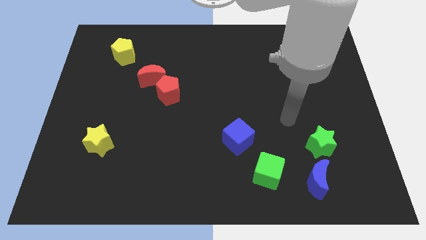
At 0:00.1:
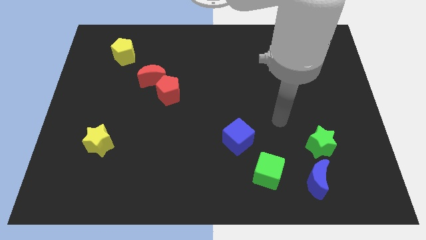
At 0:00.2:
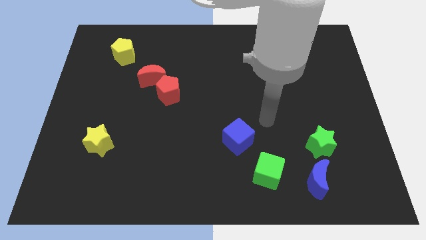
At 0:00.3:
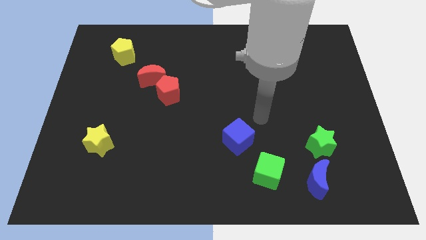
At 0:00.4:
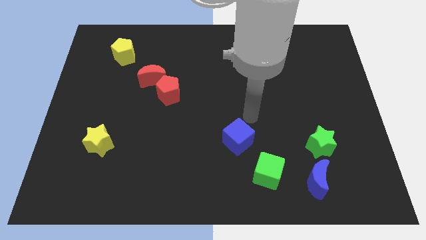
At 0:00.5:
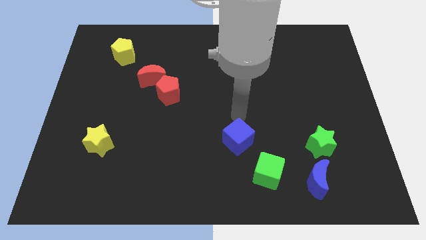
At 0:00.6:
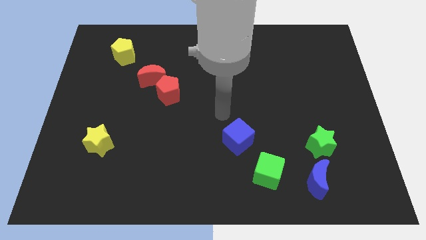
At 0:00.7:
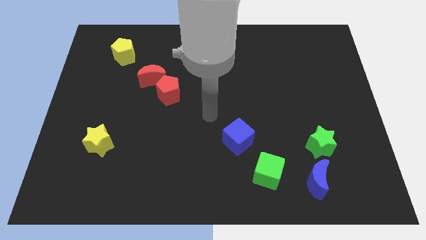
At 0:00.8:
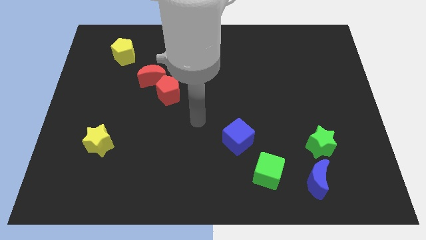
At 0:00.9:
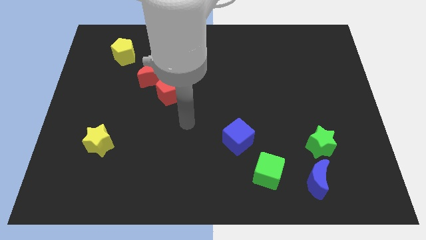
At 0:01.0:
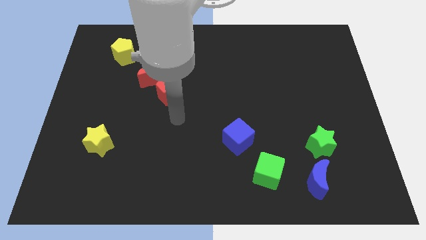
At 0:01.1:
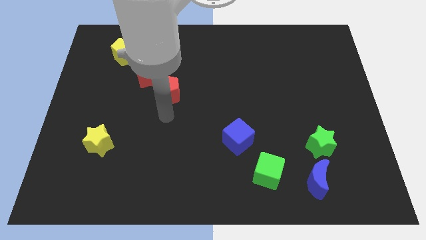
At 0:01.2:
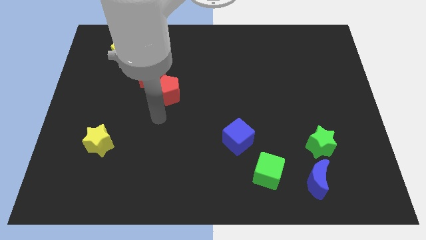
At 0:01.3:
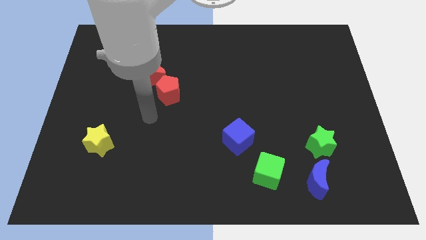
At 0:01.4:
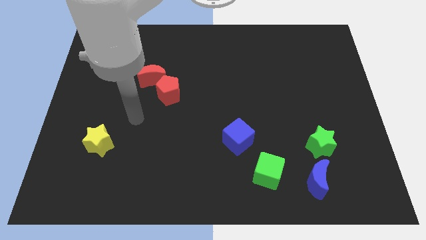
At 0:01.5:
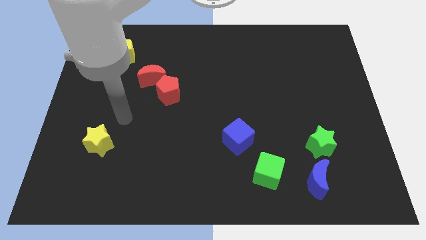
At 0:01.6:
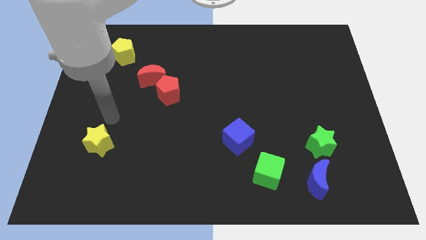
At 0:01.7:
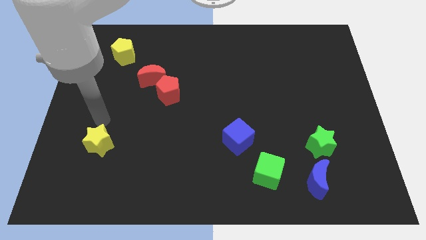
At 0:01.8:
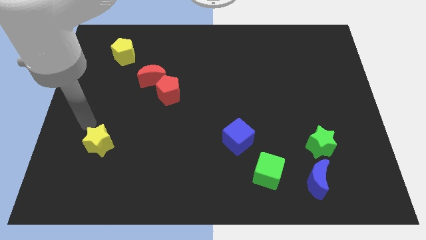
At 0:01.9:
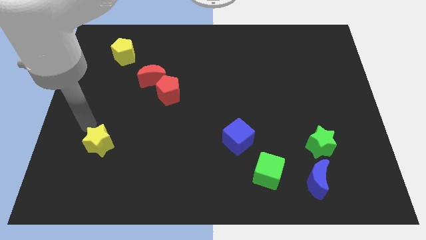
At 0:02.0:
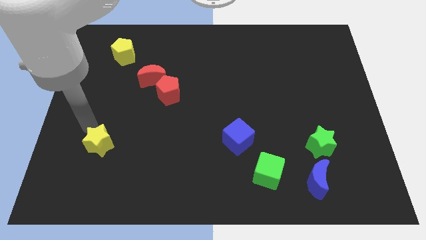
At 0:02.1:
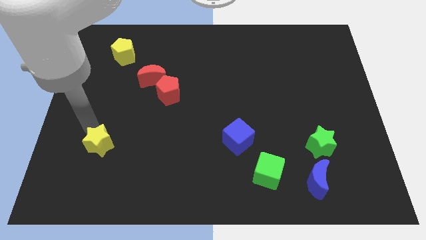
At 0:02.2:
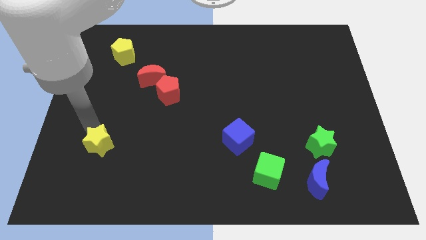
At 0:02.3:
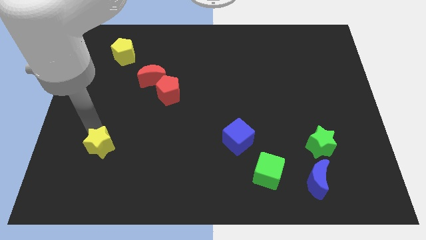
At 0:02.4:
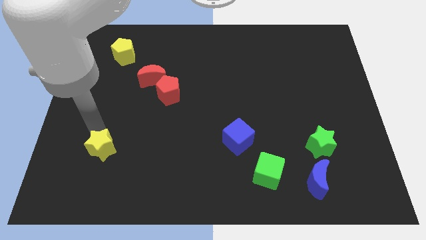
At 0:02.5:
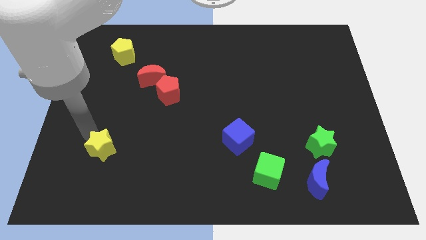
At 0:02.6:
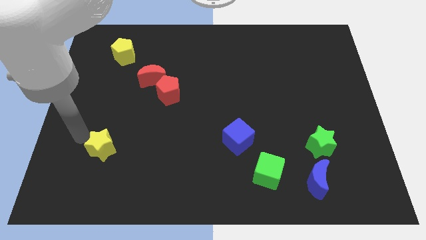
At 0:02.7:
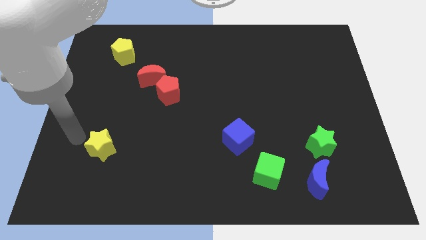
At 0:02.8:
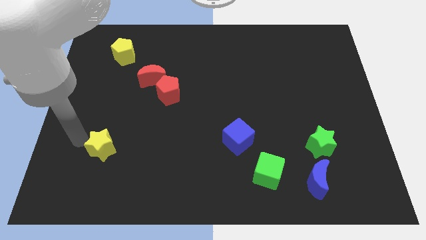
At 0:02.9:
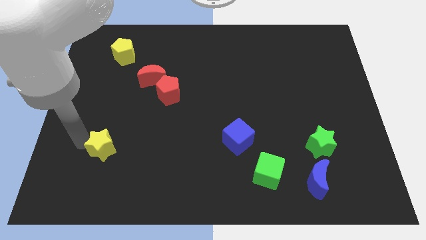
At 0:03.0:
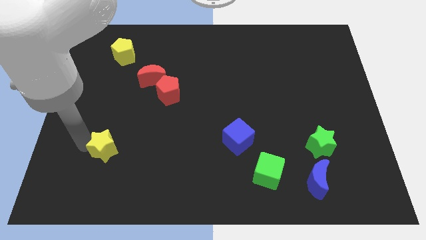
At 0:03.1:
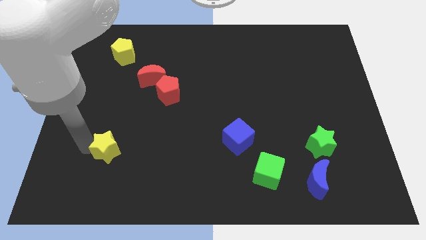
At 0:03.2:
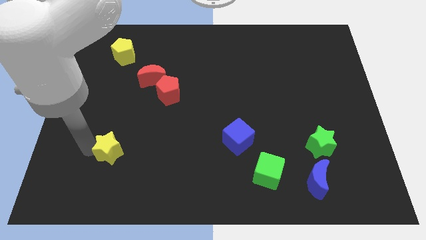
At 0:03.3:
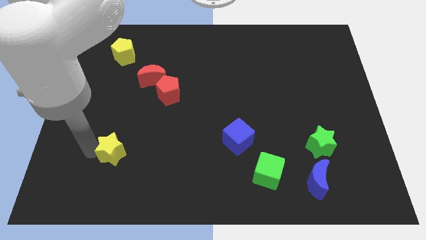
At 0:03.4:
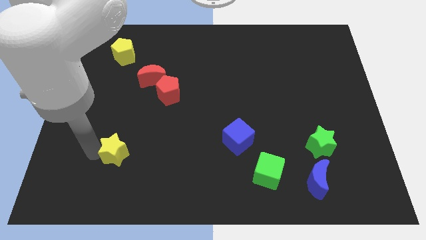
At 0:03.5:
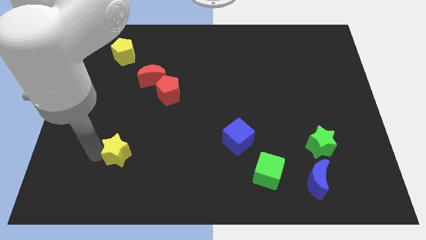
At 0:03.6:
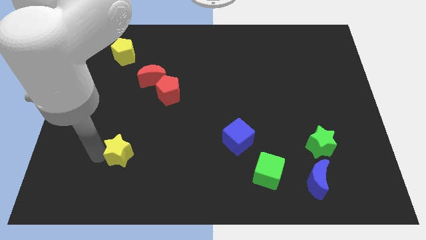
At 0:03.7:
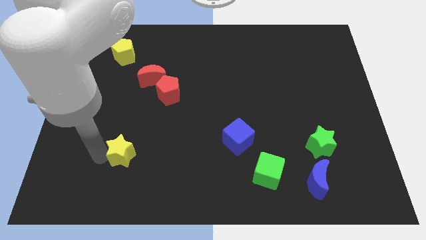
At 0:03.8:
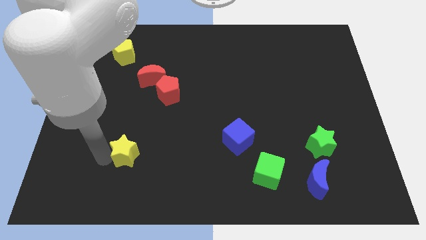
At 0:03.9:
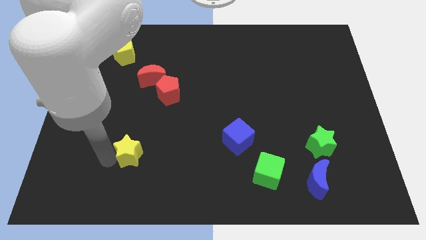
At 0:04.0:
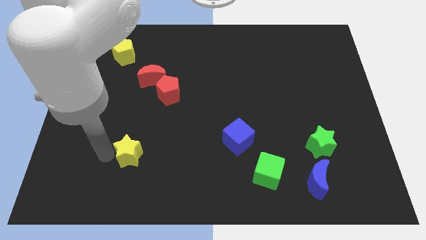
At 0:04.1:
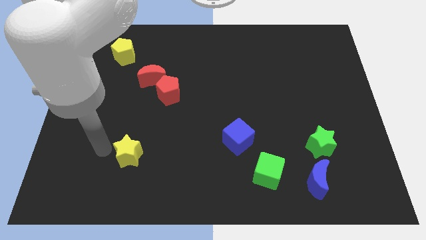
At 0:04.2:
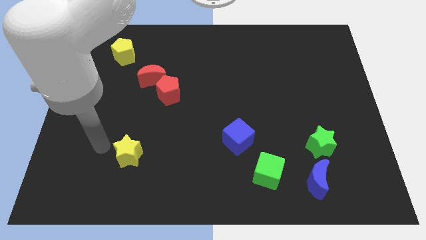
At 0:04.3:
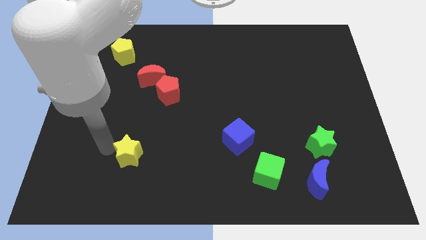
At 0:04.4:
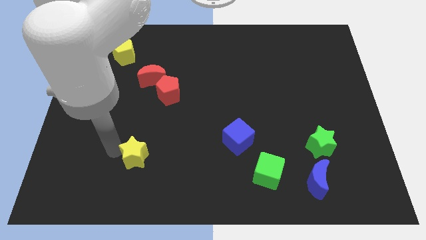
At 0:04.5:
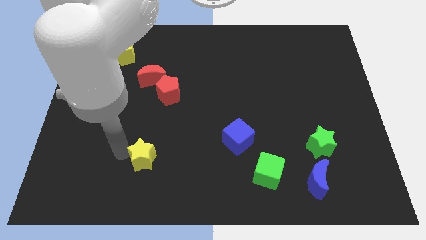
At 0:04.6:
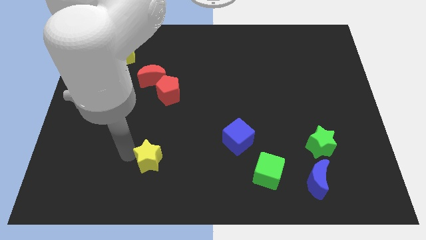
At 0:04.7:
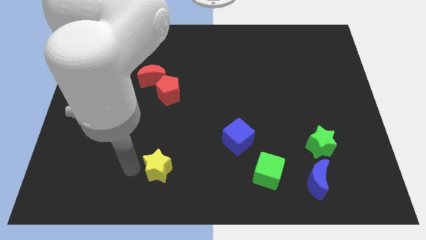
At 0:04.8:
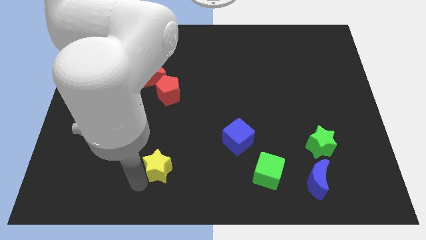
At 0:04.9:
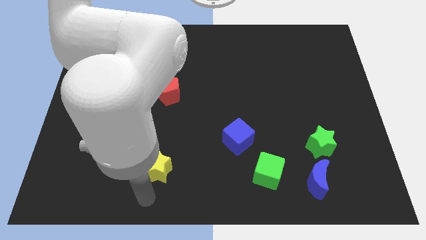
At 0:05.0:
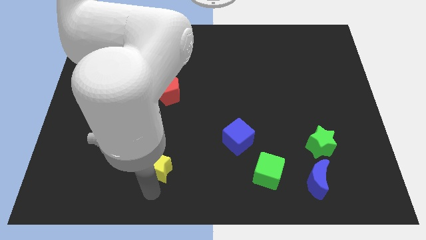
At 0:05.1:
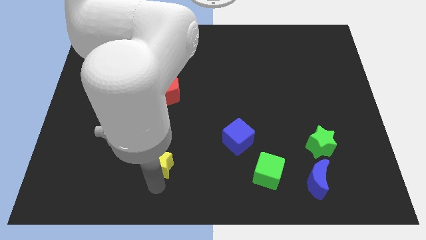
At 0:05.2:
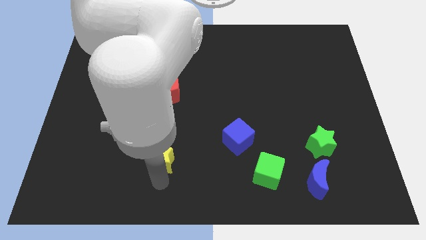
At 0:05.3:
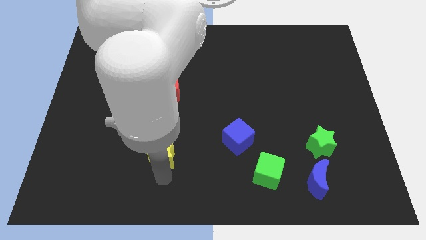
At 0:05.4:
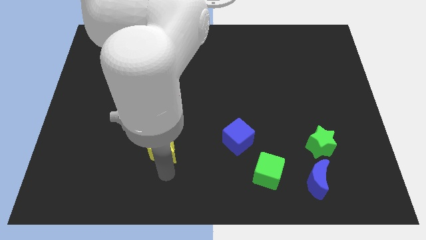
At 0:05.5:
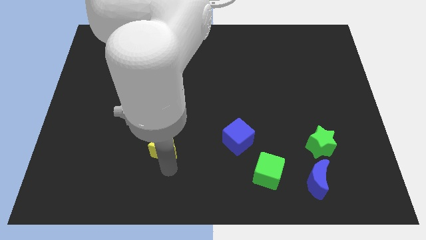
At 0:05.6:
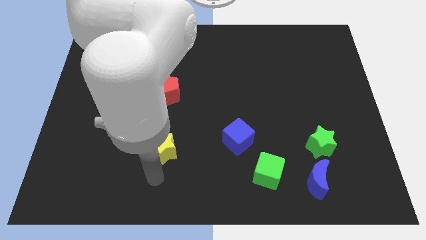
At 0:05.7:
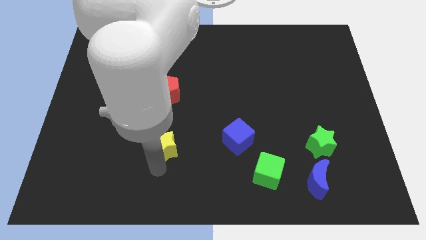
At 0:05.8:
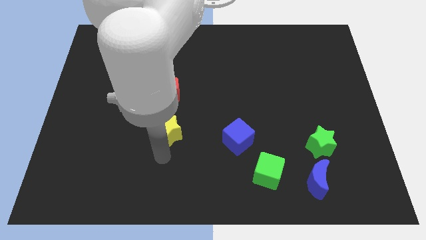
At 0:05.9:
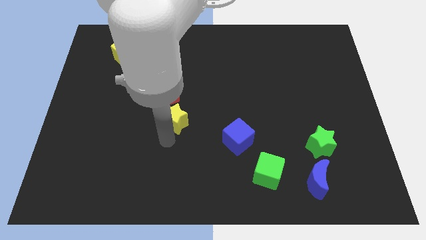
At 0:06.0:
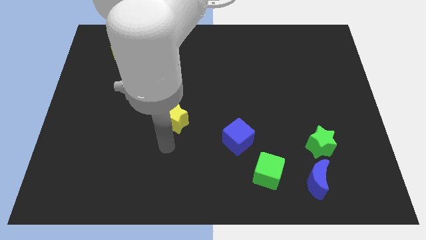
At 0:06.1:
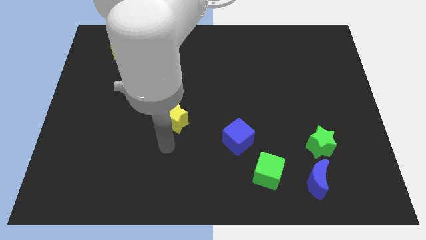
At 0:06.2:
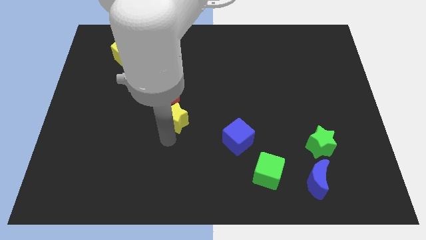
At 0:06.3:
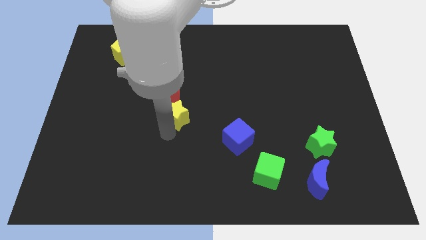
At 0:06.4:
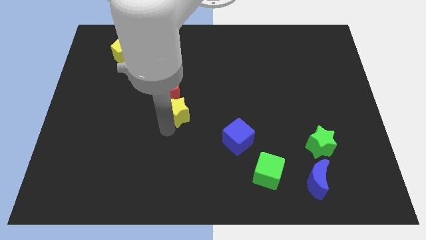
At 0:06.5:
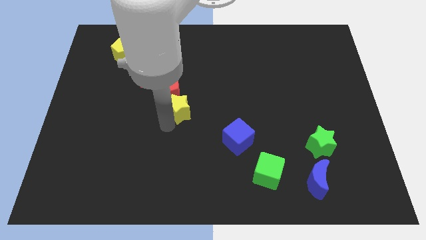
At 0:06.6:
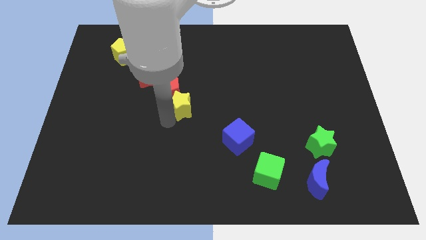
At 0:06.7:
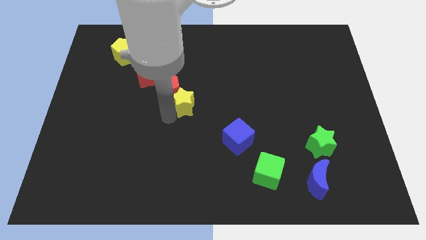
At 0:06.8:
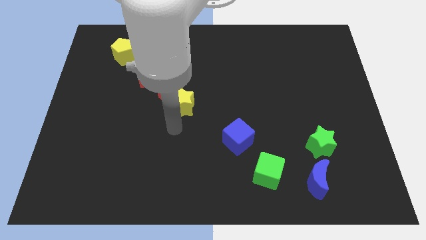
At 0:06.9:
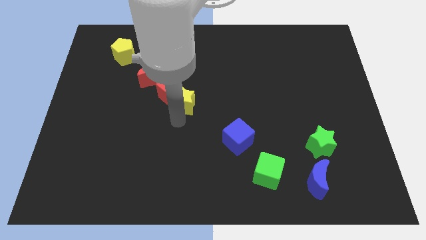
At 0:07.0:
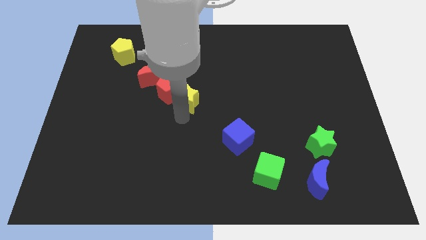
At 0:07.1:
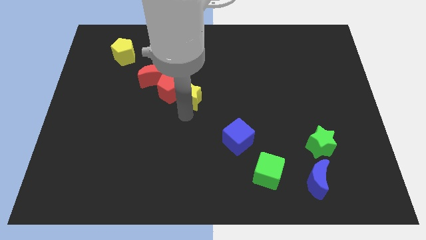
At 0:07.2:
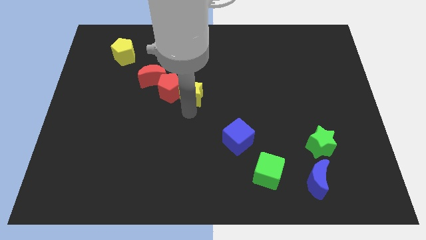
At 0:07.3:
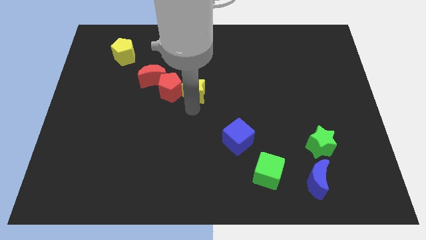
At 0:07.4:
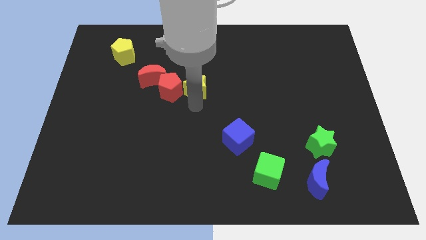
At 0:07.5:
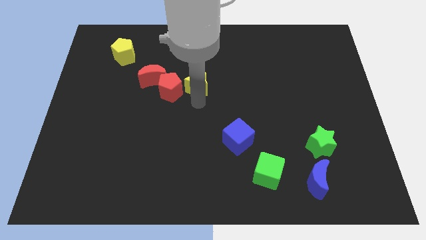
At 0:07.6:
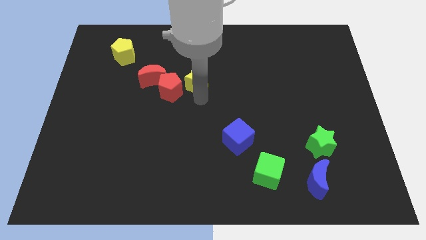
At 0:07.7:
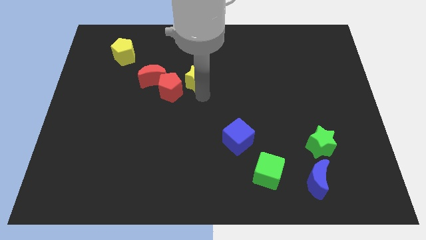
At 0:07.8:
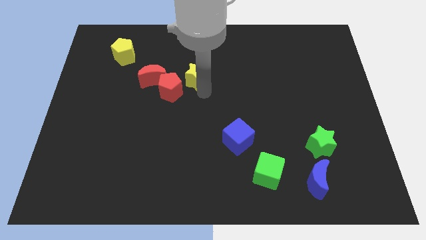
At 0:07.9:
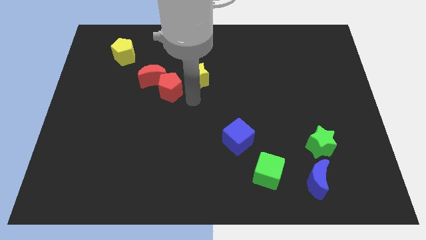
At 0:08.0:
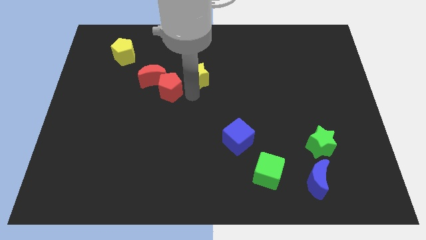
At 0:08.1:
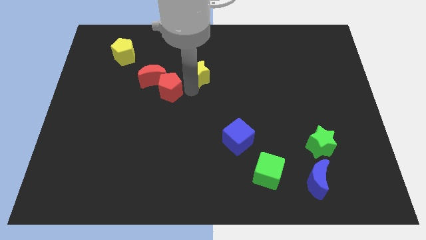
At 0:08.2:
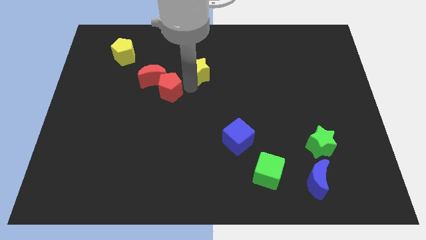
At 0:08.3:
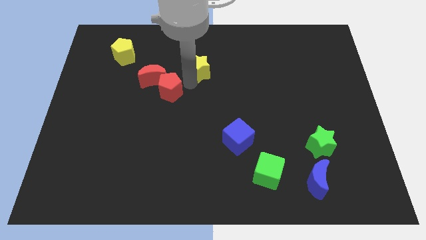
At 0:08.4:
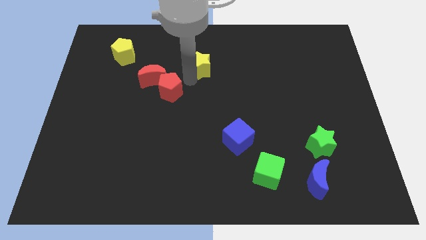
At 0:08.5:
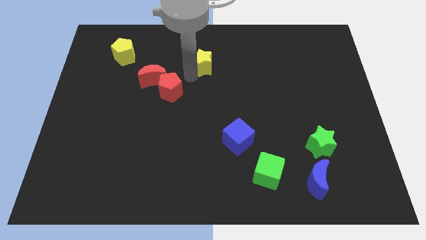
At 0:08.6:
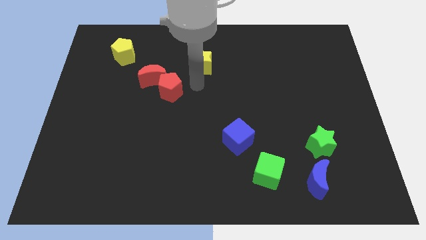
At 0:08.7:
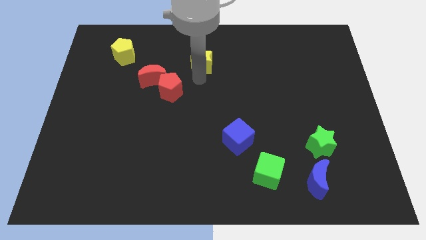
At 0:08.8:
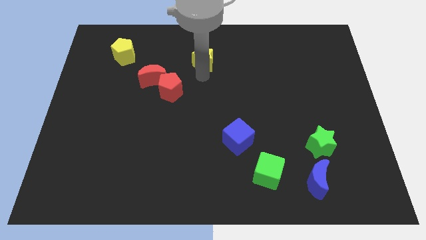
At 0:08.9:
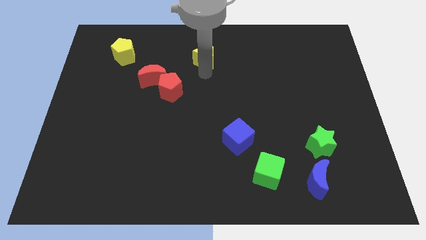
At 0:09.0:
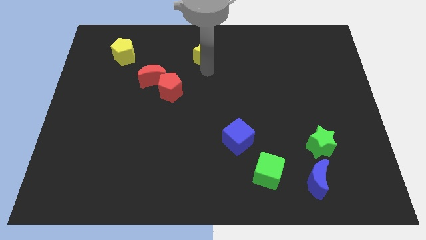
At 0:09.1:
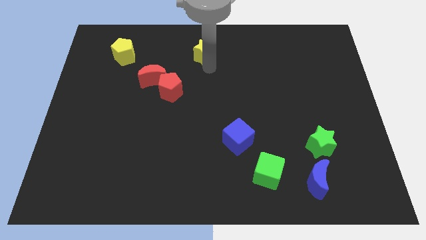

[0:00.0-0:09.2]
slide the yellow star to the towards your base
